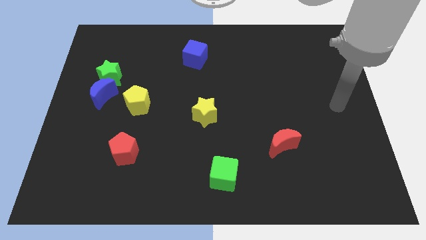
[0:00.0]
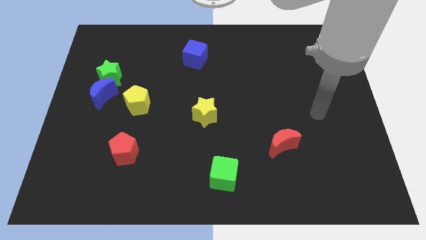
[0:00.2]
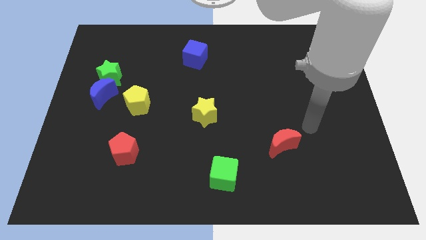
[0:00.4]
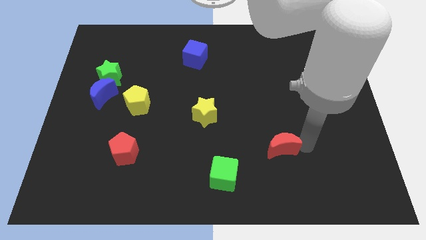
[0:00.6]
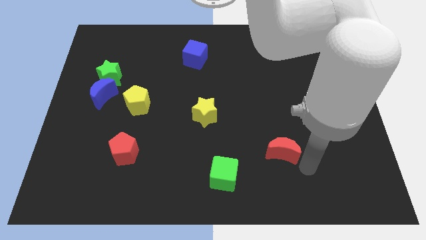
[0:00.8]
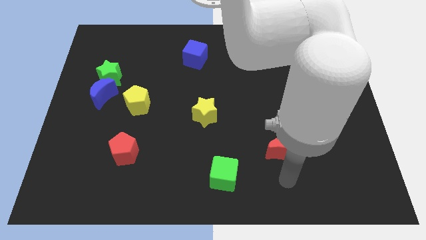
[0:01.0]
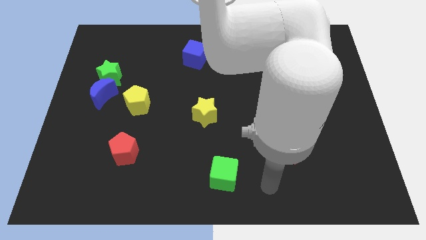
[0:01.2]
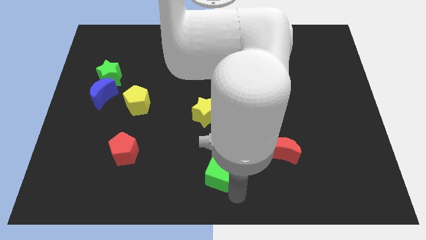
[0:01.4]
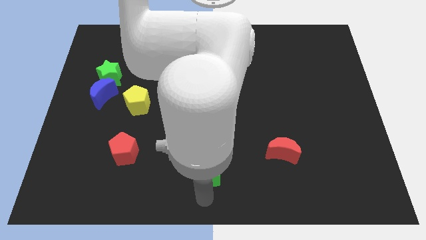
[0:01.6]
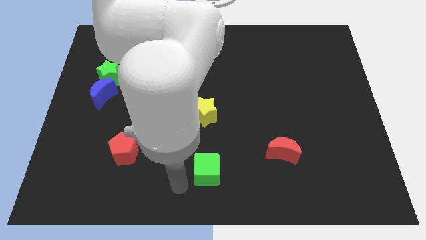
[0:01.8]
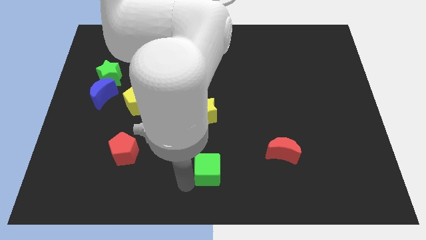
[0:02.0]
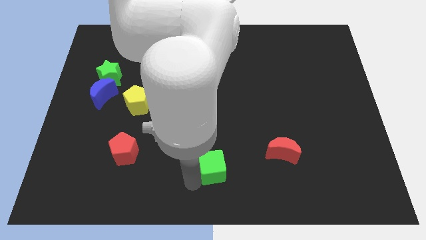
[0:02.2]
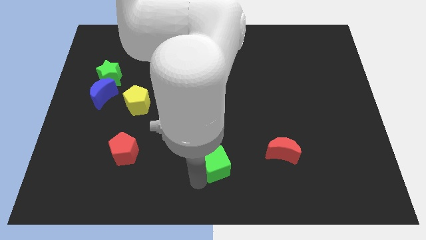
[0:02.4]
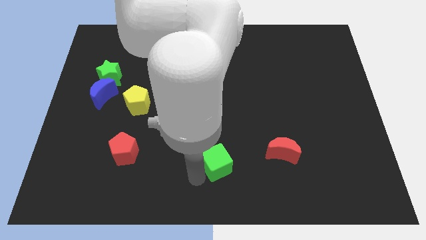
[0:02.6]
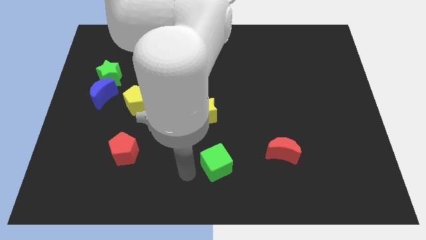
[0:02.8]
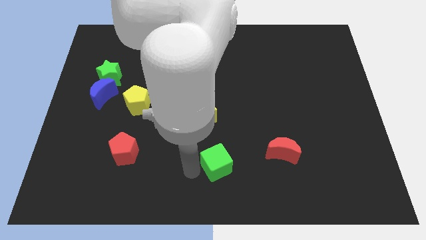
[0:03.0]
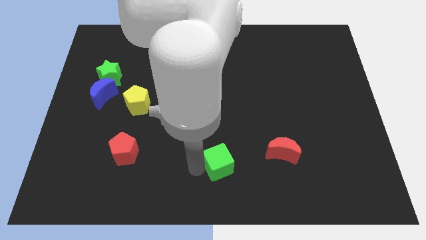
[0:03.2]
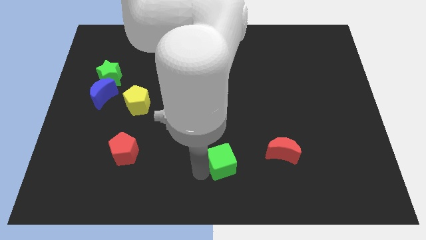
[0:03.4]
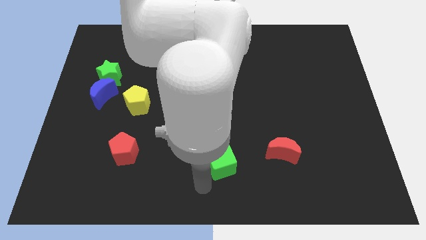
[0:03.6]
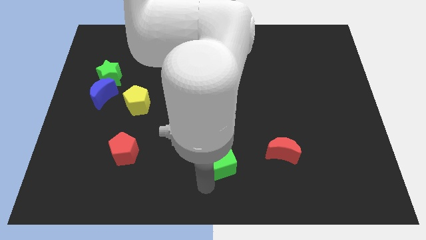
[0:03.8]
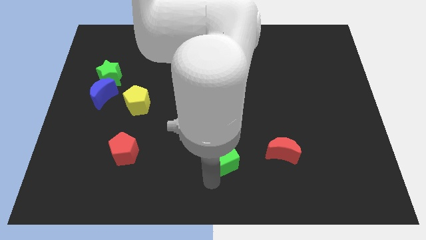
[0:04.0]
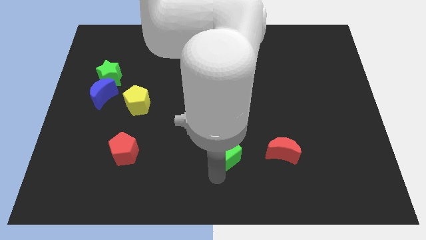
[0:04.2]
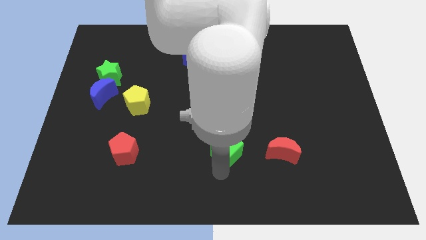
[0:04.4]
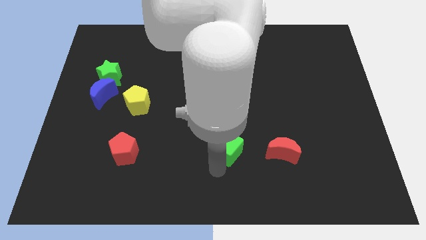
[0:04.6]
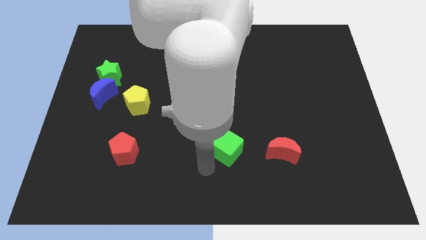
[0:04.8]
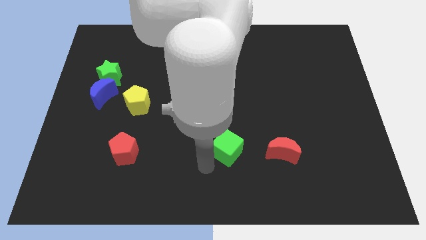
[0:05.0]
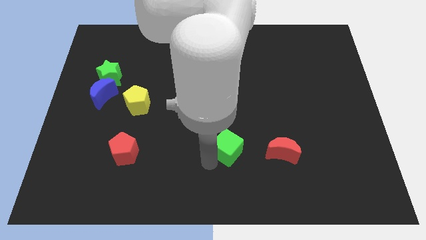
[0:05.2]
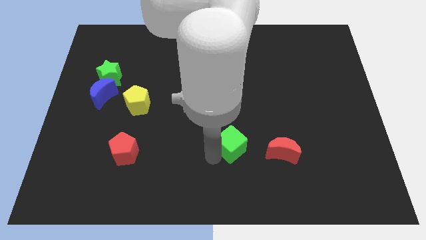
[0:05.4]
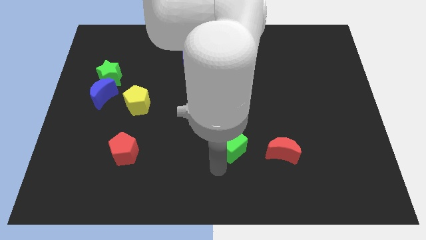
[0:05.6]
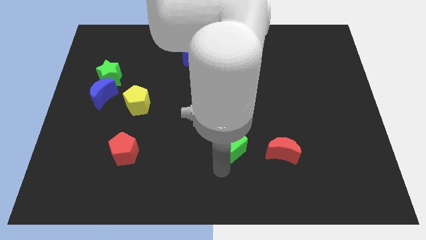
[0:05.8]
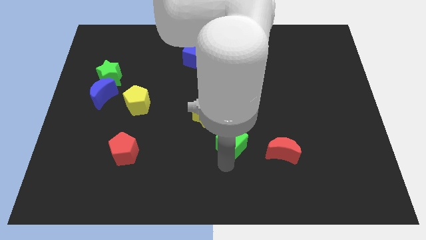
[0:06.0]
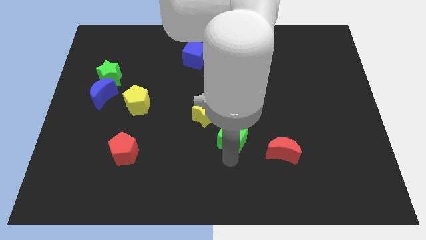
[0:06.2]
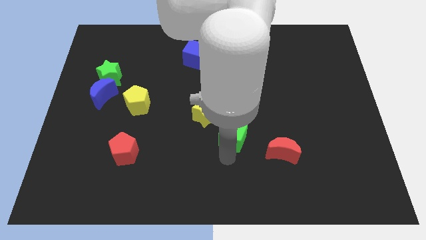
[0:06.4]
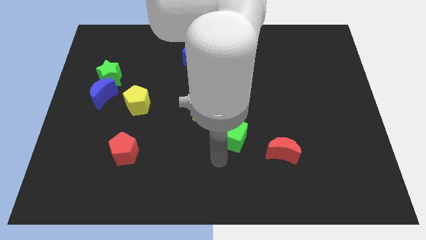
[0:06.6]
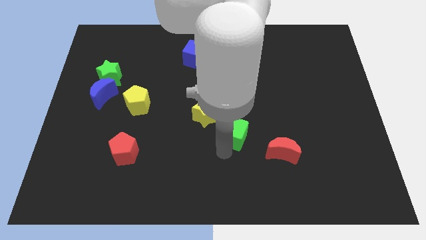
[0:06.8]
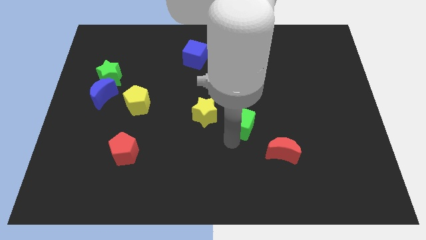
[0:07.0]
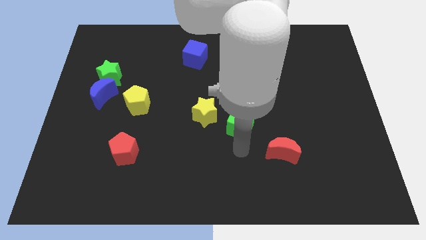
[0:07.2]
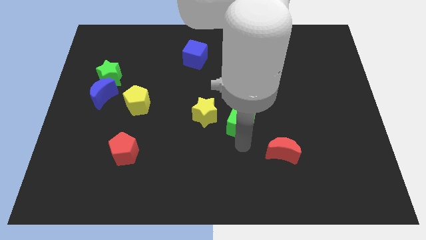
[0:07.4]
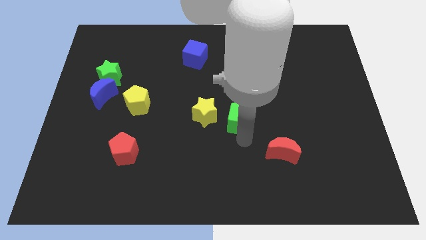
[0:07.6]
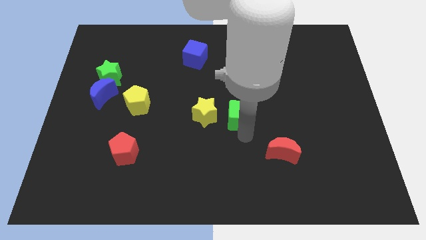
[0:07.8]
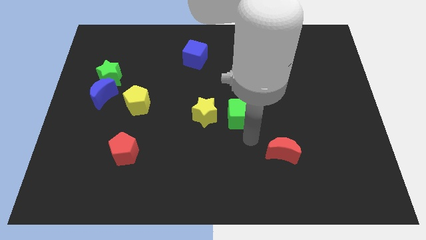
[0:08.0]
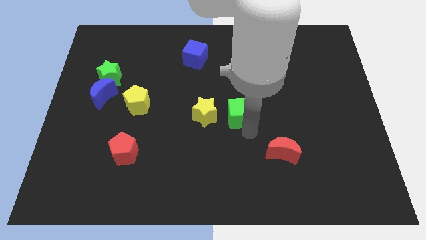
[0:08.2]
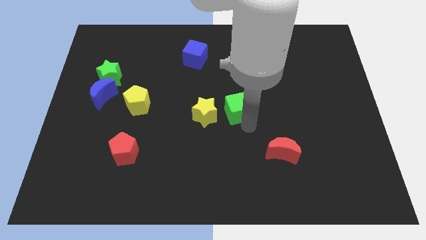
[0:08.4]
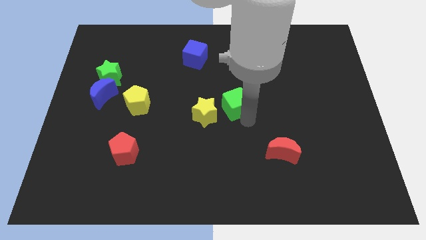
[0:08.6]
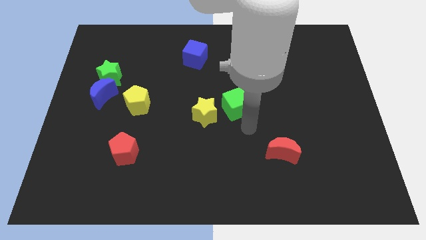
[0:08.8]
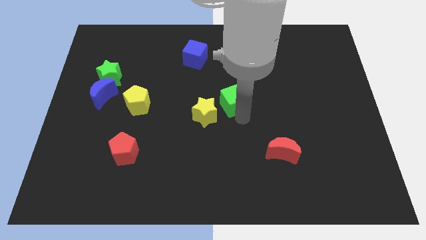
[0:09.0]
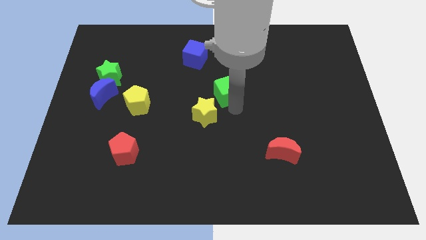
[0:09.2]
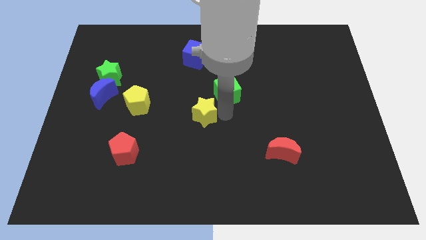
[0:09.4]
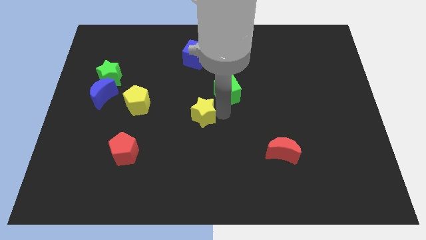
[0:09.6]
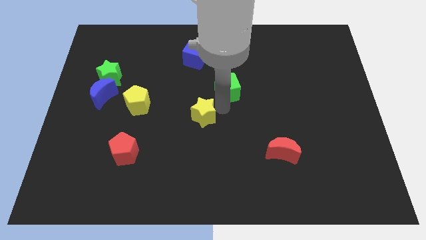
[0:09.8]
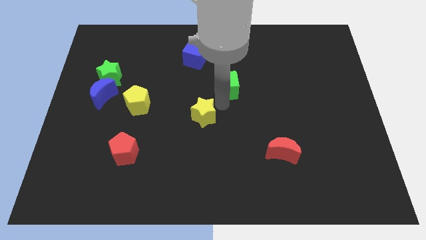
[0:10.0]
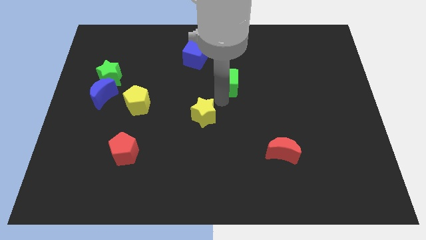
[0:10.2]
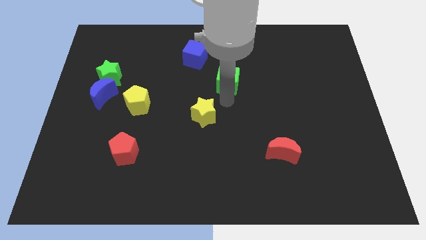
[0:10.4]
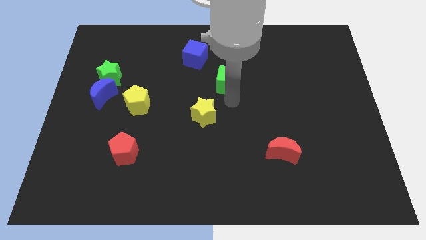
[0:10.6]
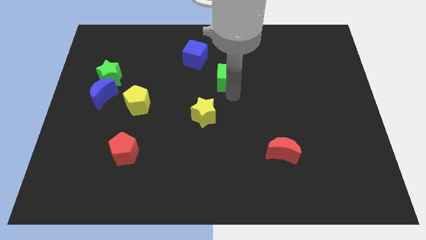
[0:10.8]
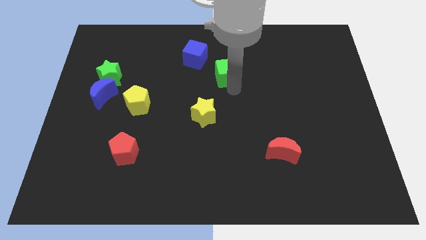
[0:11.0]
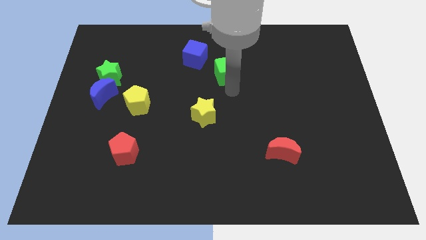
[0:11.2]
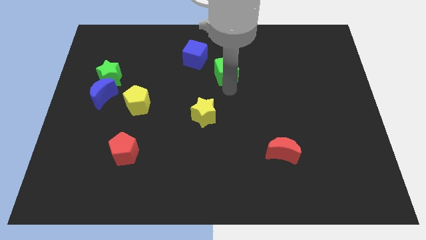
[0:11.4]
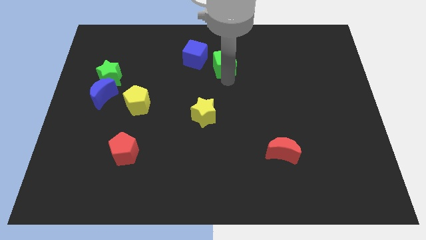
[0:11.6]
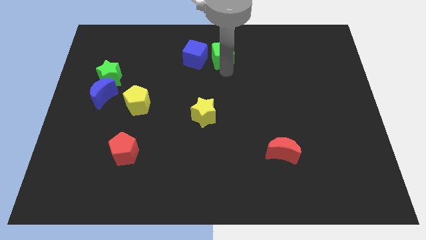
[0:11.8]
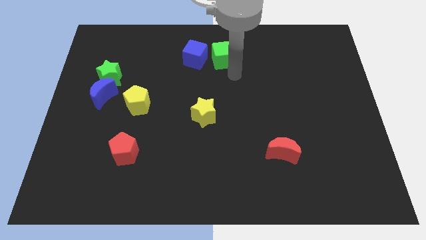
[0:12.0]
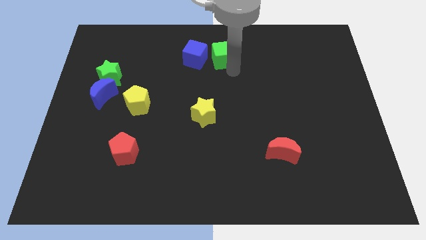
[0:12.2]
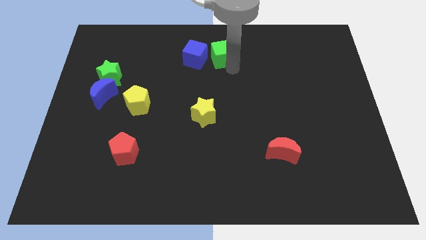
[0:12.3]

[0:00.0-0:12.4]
put the green cube to the top
